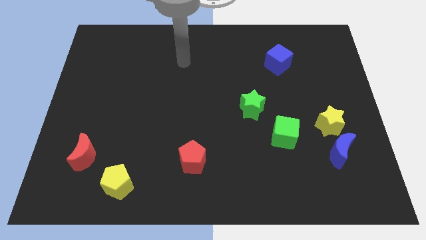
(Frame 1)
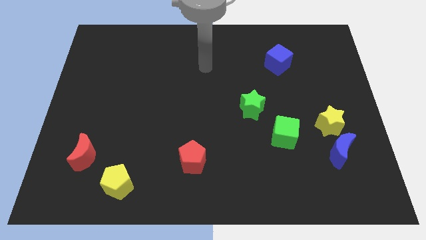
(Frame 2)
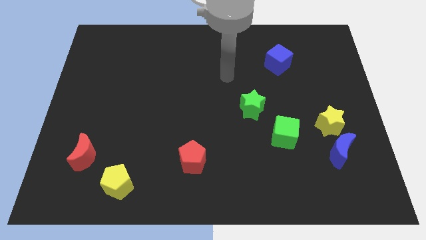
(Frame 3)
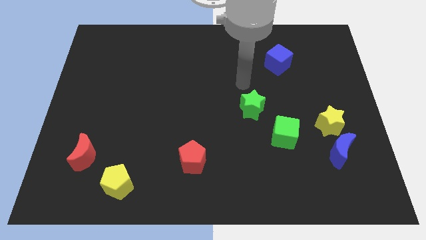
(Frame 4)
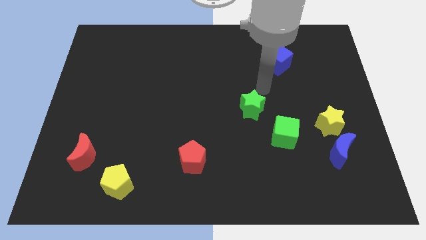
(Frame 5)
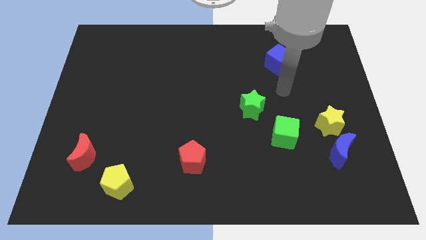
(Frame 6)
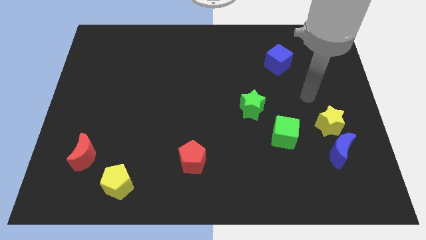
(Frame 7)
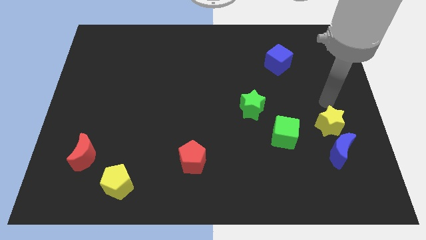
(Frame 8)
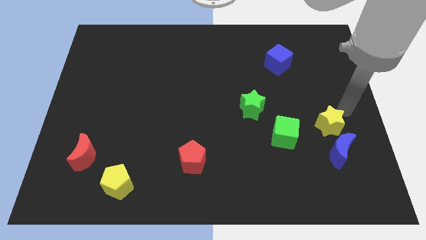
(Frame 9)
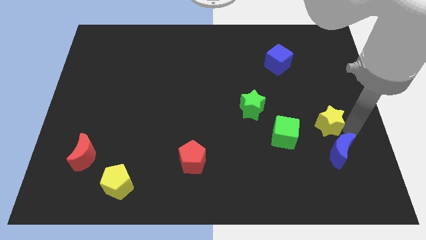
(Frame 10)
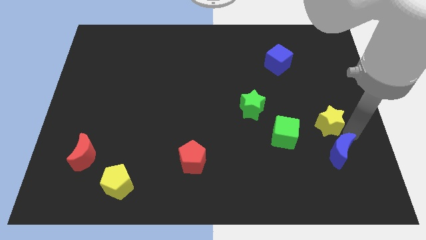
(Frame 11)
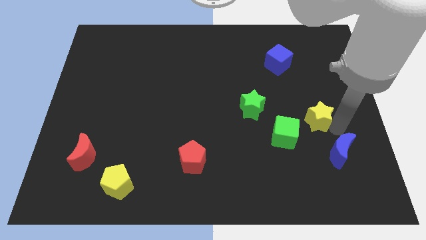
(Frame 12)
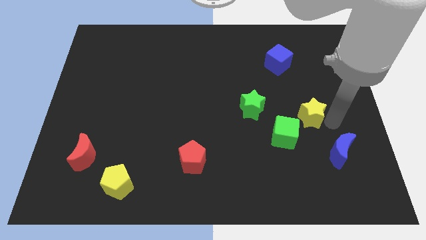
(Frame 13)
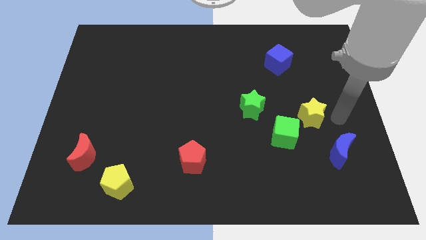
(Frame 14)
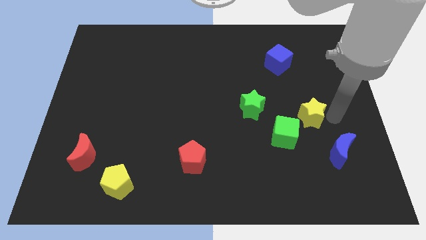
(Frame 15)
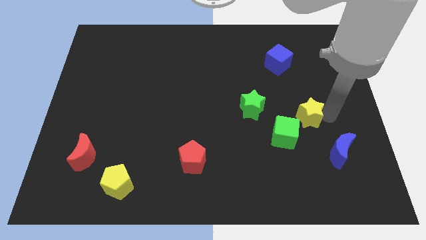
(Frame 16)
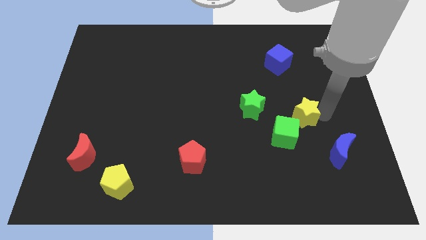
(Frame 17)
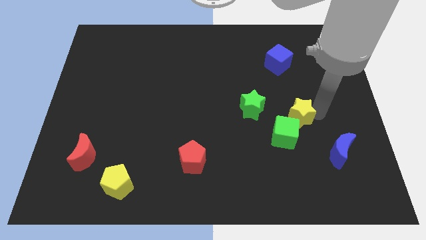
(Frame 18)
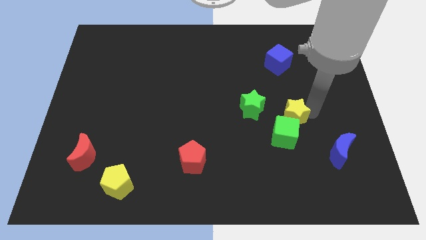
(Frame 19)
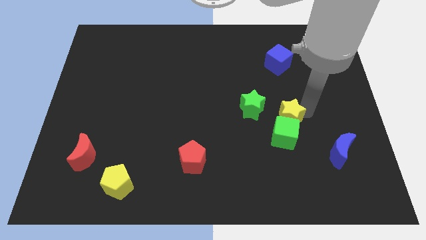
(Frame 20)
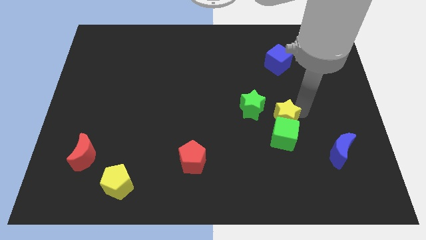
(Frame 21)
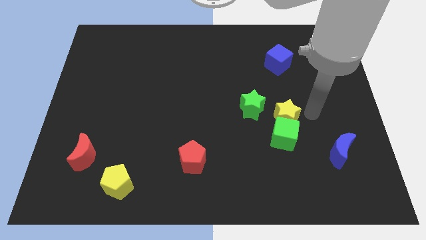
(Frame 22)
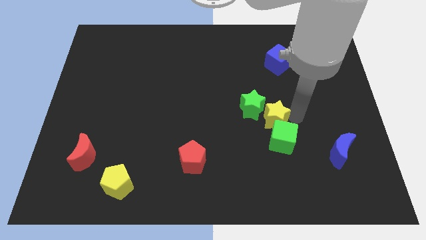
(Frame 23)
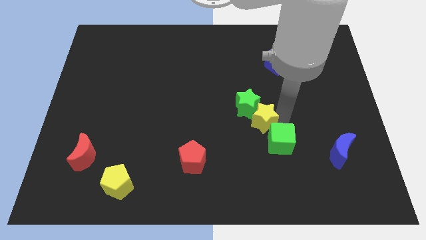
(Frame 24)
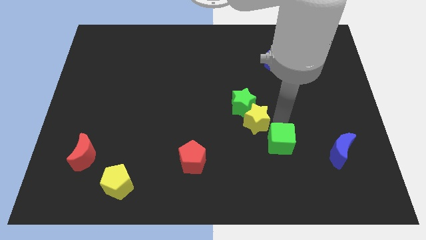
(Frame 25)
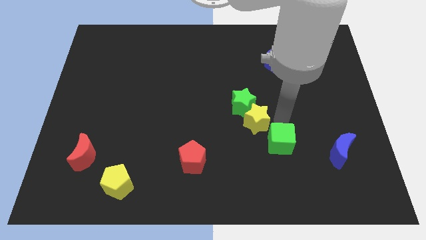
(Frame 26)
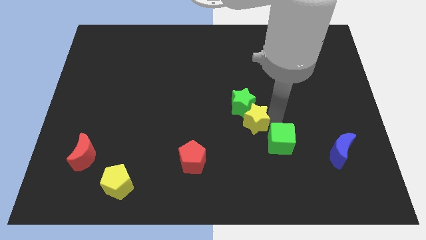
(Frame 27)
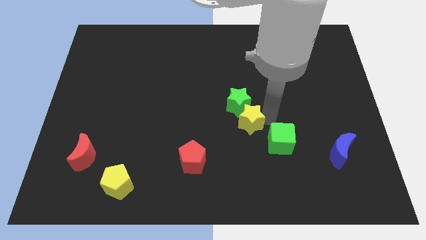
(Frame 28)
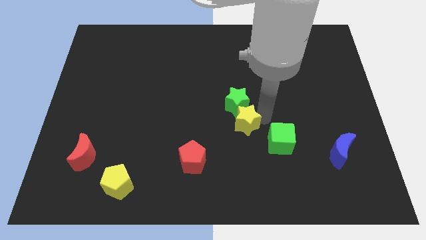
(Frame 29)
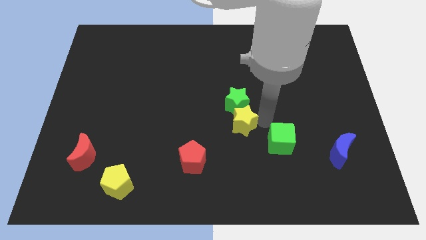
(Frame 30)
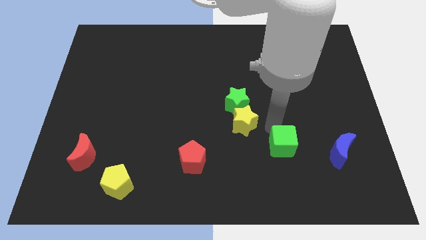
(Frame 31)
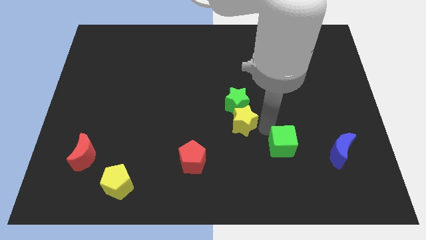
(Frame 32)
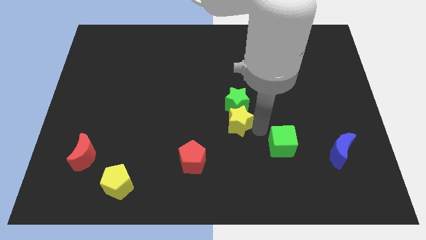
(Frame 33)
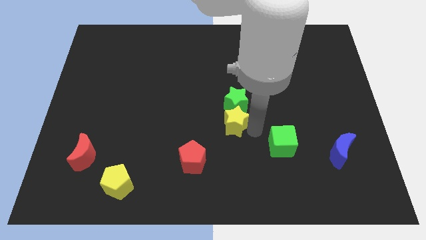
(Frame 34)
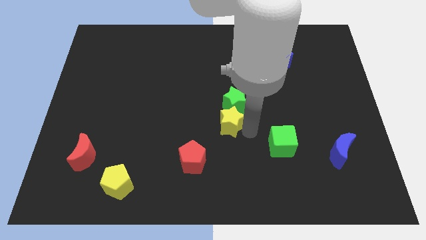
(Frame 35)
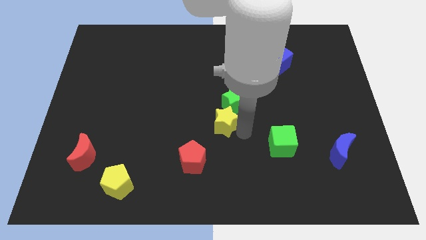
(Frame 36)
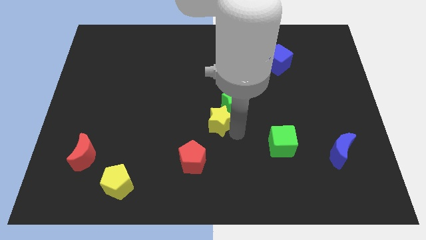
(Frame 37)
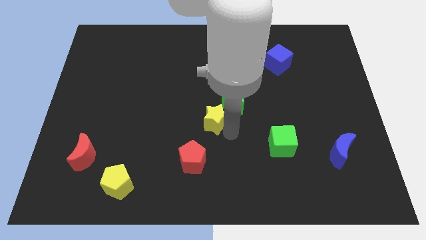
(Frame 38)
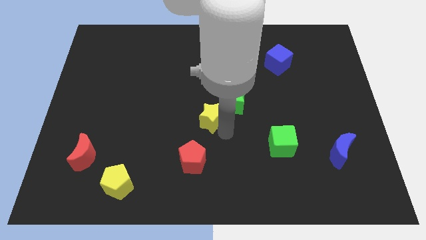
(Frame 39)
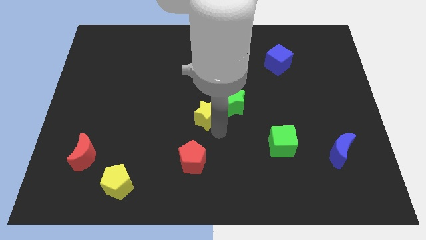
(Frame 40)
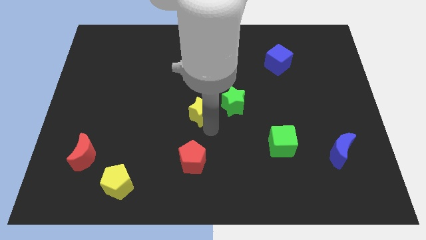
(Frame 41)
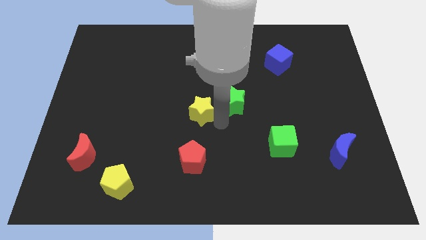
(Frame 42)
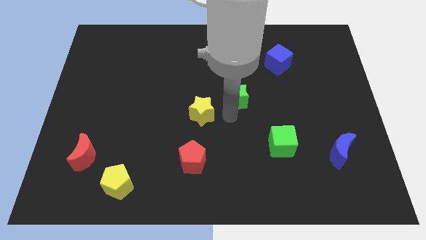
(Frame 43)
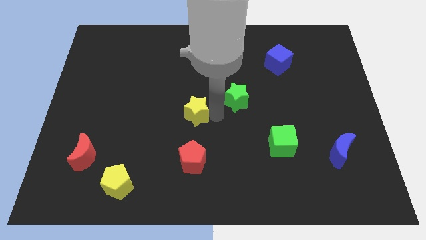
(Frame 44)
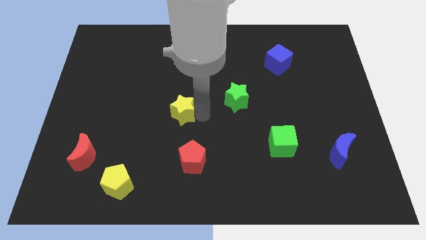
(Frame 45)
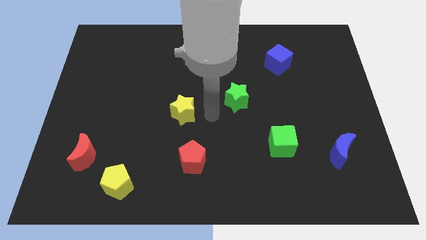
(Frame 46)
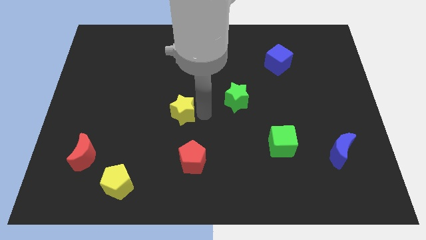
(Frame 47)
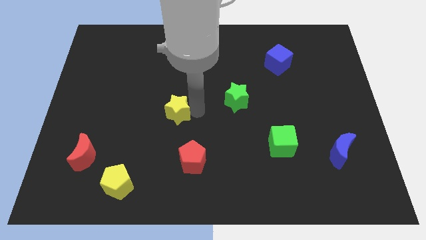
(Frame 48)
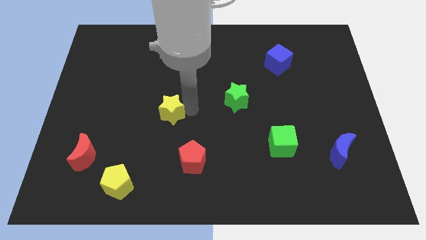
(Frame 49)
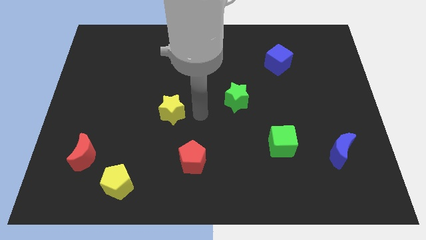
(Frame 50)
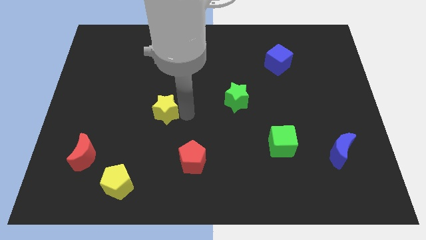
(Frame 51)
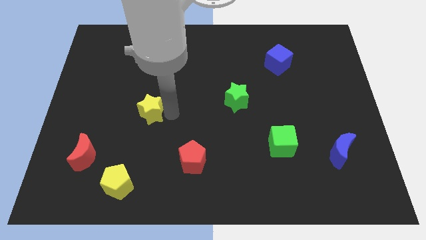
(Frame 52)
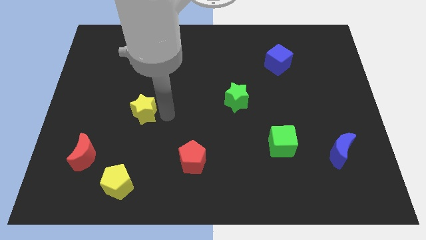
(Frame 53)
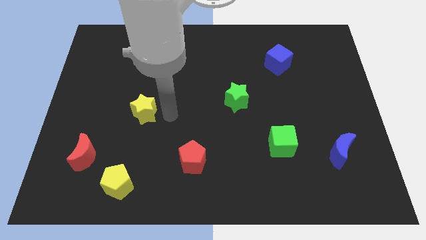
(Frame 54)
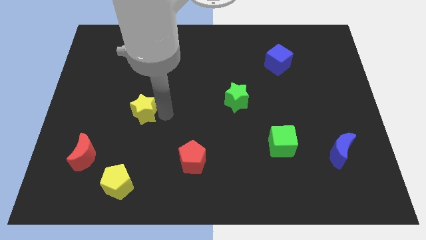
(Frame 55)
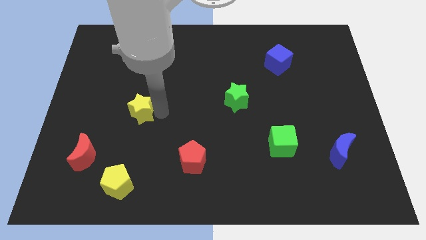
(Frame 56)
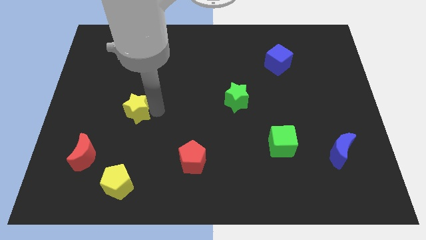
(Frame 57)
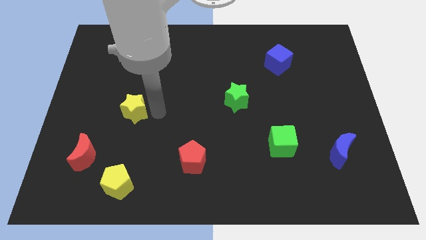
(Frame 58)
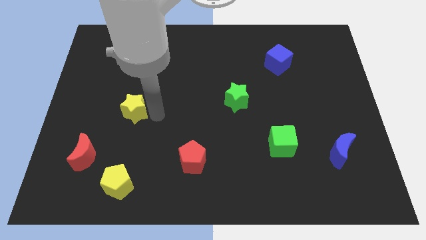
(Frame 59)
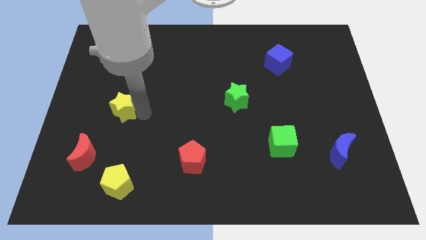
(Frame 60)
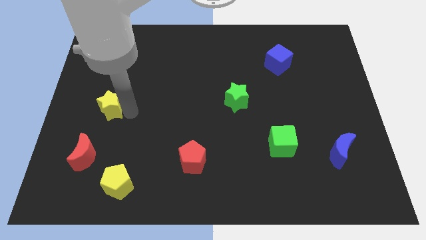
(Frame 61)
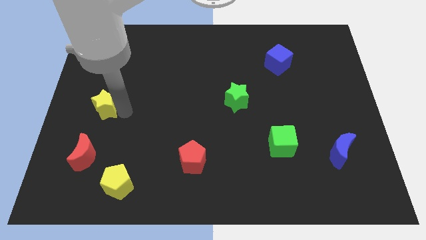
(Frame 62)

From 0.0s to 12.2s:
push the yellow star to the center left

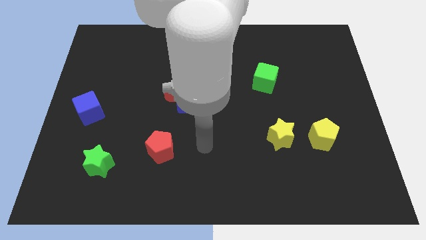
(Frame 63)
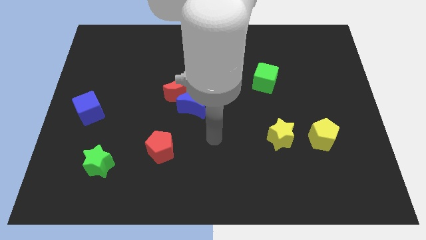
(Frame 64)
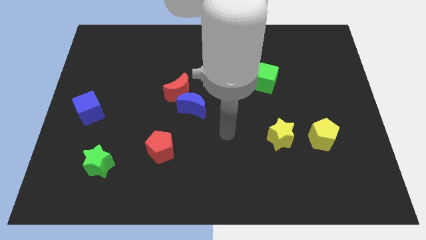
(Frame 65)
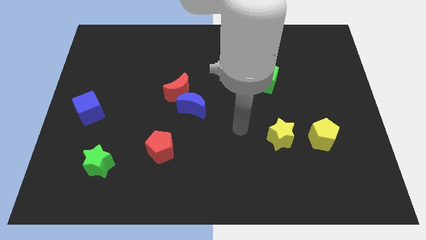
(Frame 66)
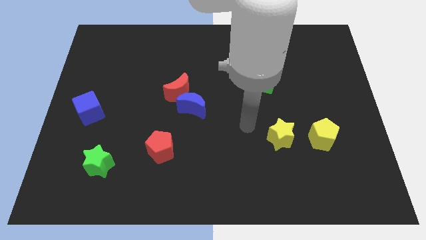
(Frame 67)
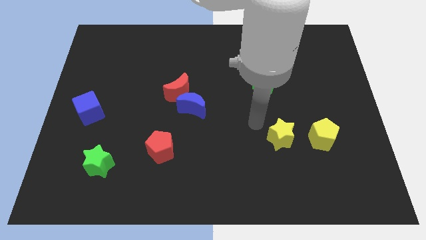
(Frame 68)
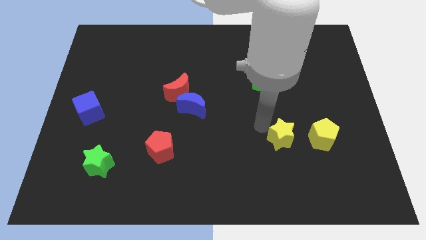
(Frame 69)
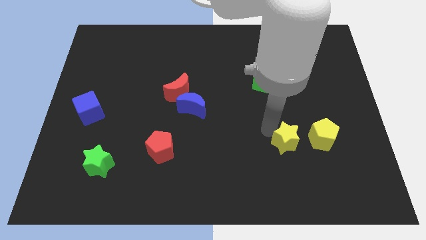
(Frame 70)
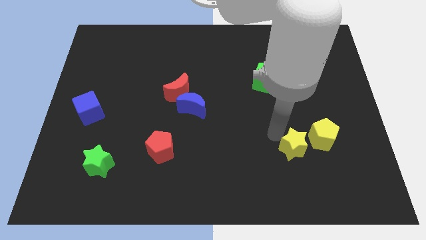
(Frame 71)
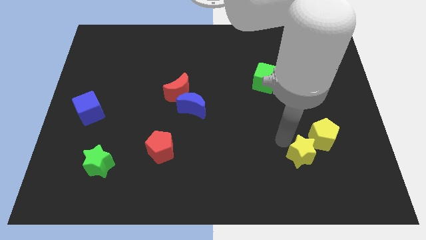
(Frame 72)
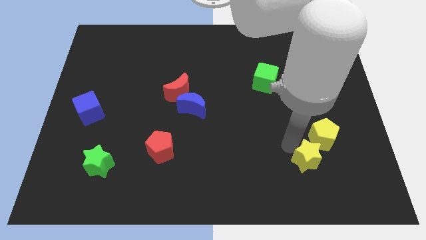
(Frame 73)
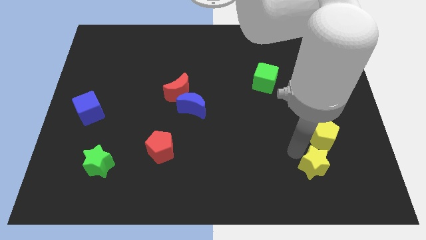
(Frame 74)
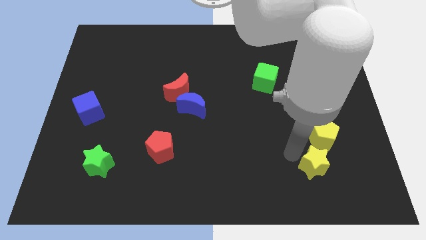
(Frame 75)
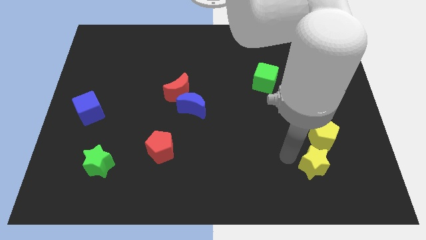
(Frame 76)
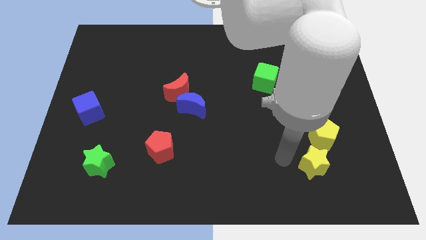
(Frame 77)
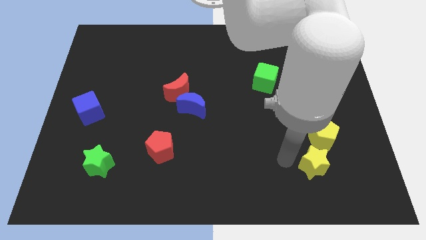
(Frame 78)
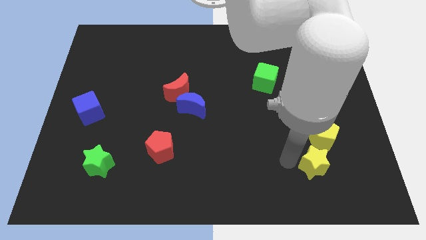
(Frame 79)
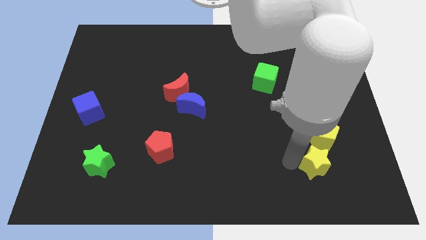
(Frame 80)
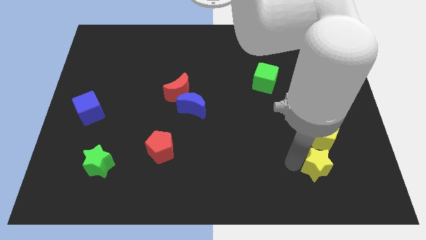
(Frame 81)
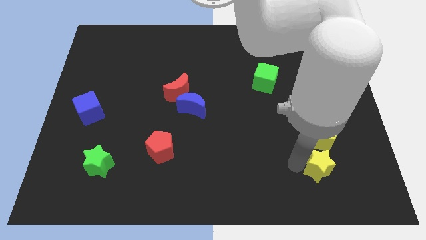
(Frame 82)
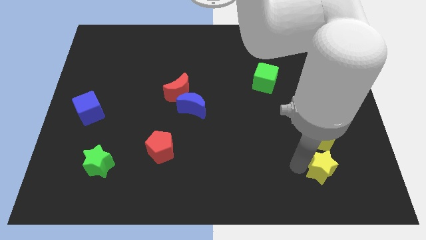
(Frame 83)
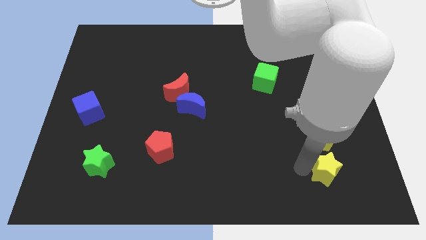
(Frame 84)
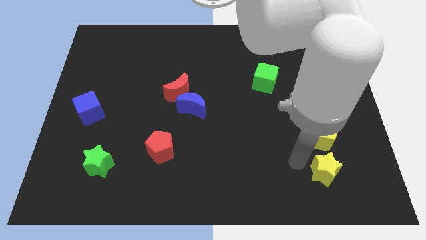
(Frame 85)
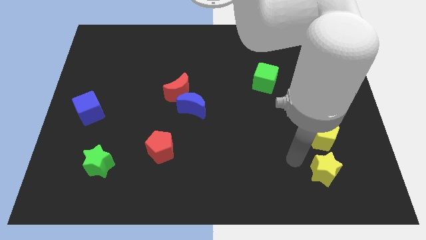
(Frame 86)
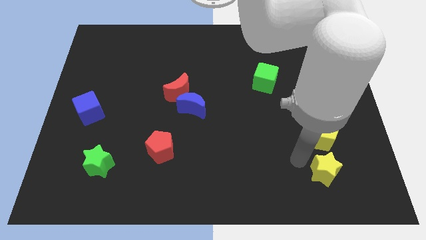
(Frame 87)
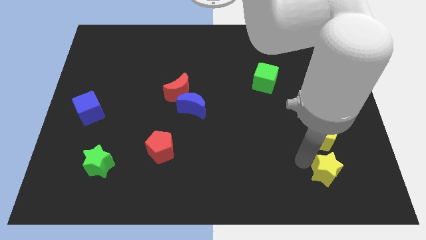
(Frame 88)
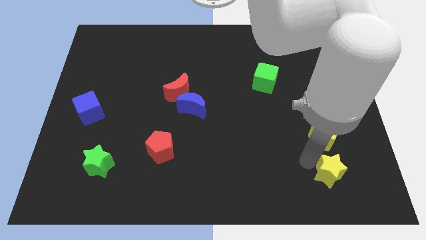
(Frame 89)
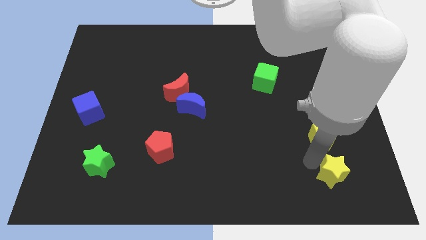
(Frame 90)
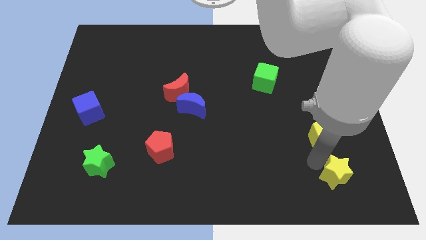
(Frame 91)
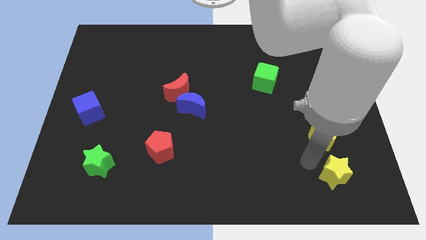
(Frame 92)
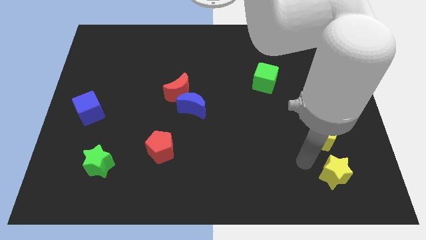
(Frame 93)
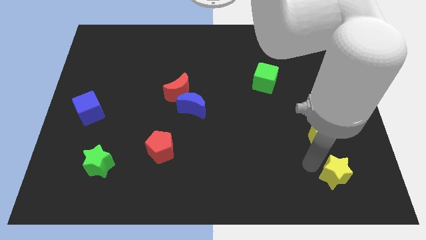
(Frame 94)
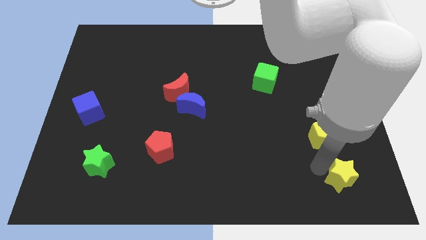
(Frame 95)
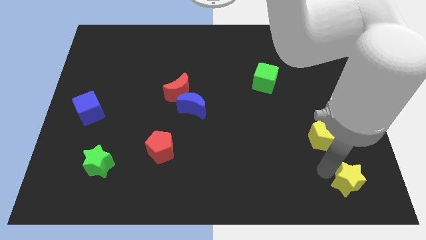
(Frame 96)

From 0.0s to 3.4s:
put the yellow star to the lower right corner
